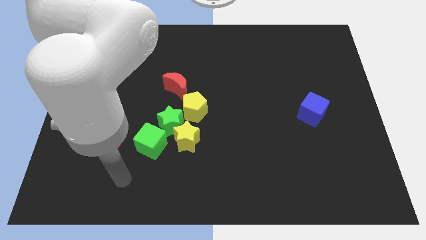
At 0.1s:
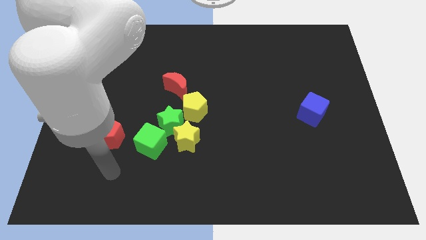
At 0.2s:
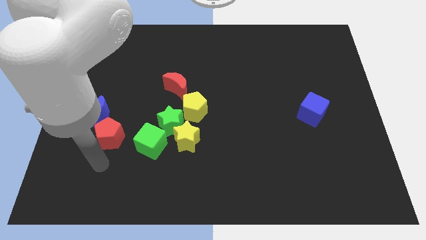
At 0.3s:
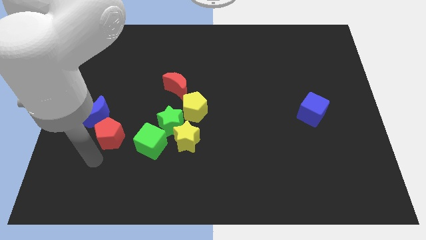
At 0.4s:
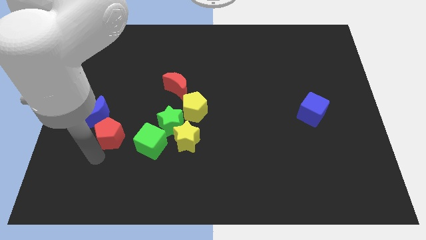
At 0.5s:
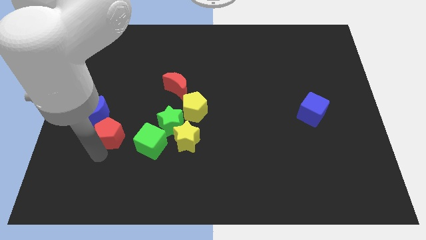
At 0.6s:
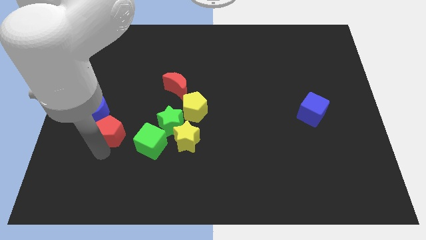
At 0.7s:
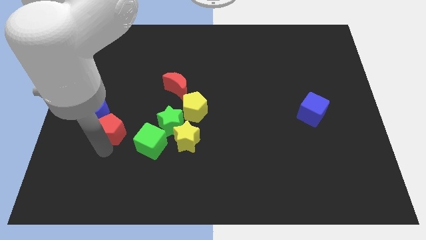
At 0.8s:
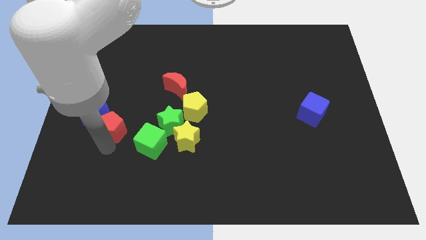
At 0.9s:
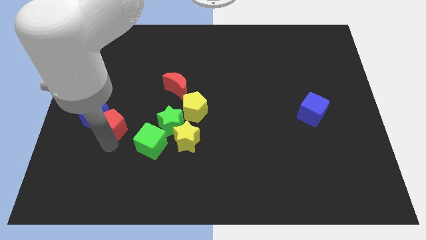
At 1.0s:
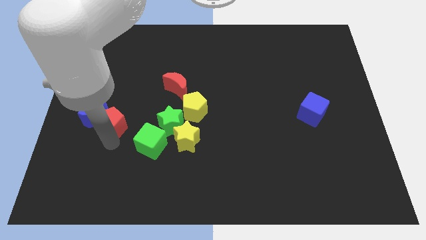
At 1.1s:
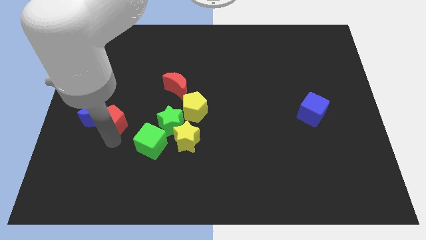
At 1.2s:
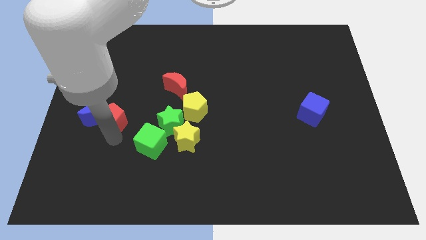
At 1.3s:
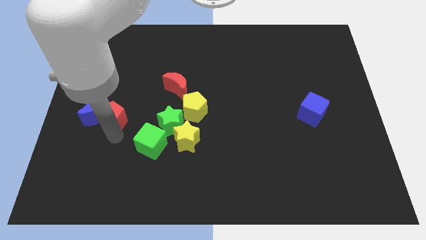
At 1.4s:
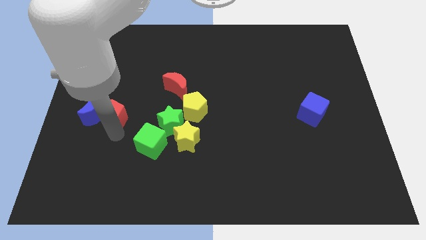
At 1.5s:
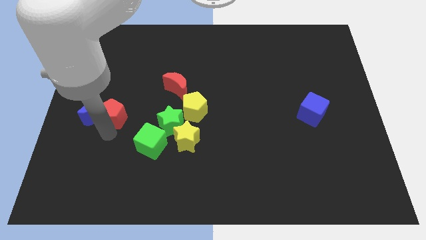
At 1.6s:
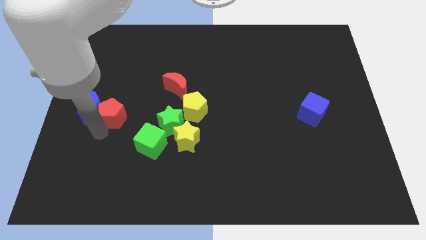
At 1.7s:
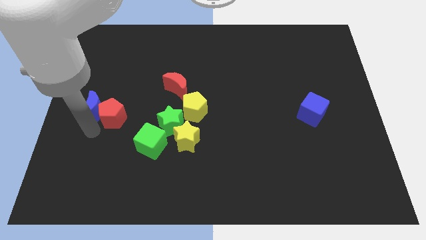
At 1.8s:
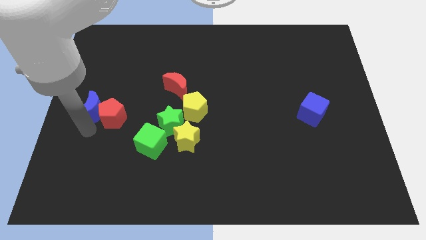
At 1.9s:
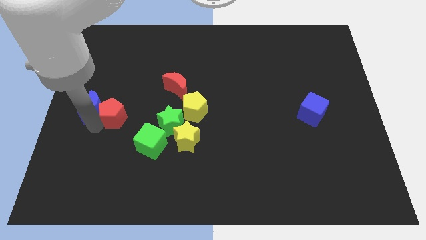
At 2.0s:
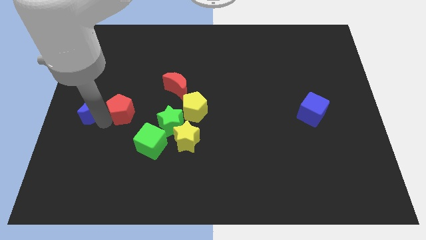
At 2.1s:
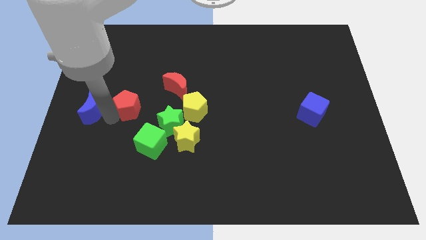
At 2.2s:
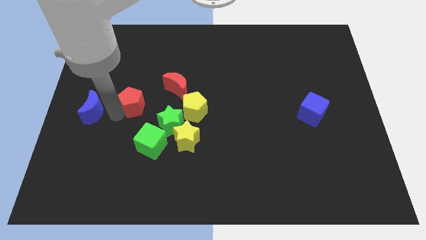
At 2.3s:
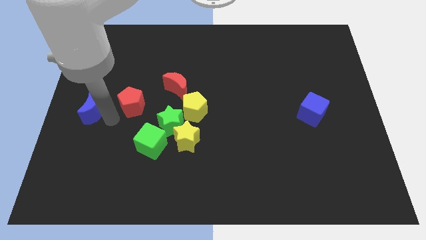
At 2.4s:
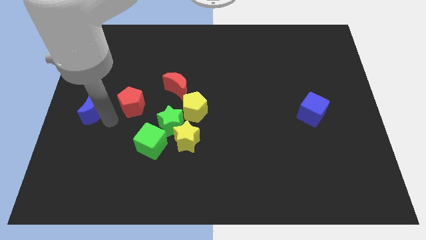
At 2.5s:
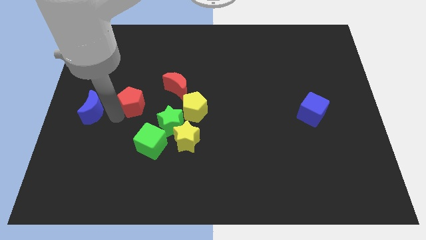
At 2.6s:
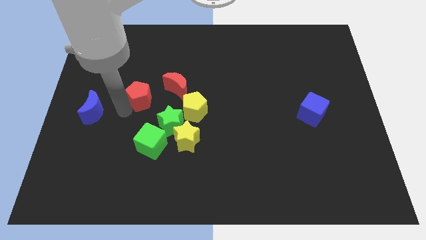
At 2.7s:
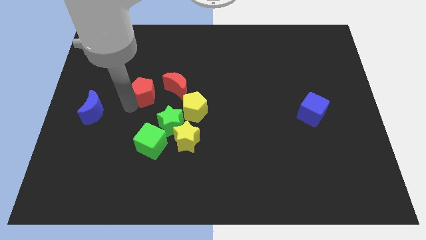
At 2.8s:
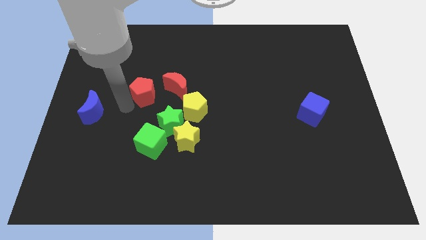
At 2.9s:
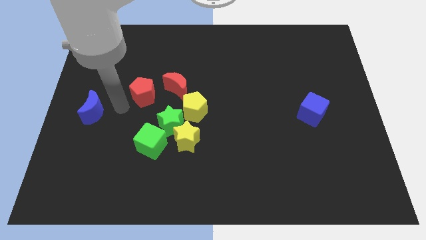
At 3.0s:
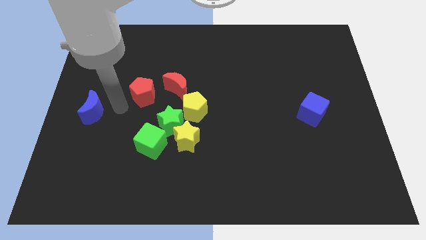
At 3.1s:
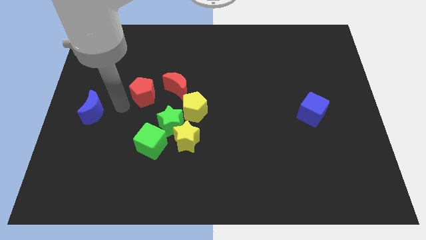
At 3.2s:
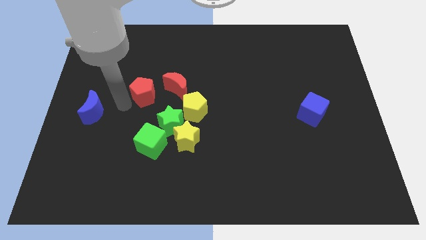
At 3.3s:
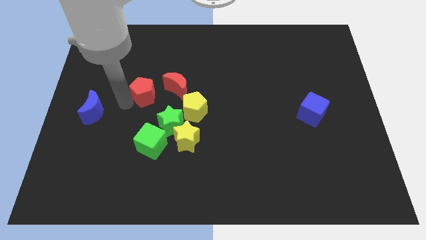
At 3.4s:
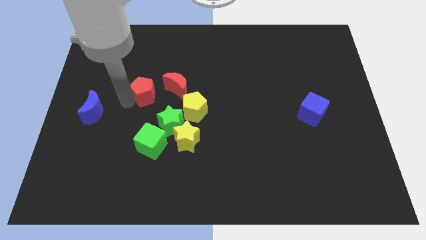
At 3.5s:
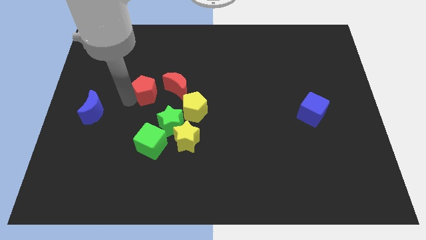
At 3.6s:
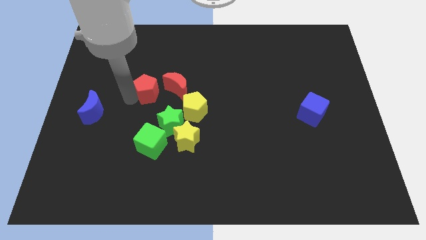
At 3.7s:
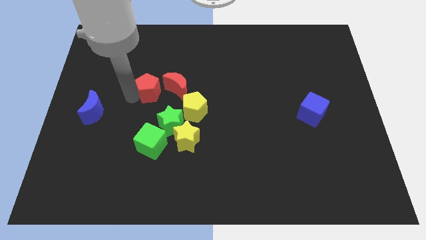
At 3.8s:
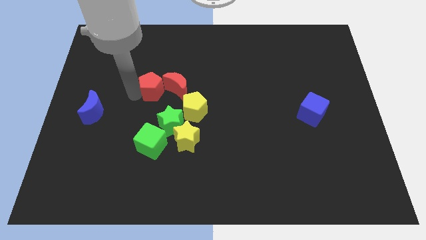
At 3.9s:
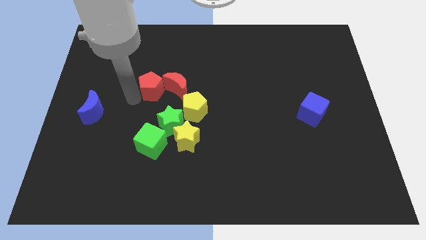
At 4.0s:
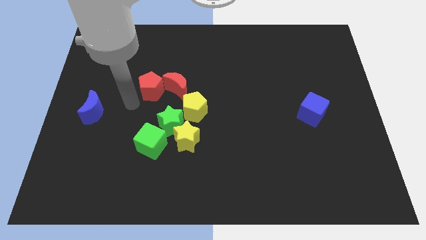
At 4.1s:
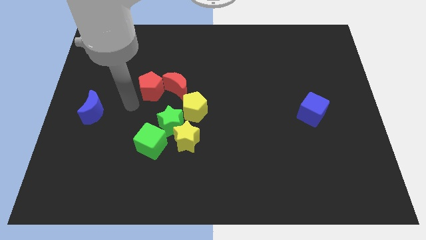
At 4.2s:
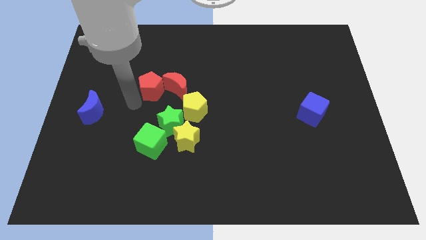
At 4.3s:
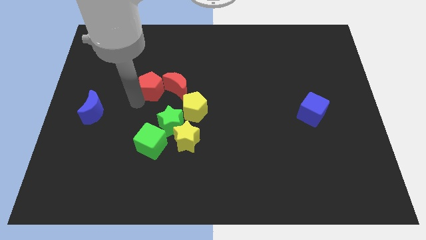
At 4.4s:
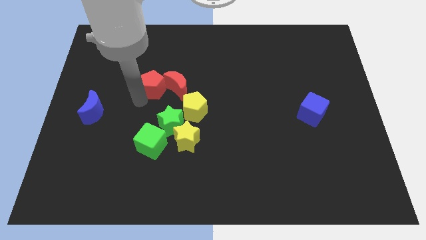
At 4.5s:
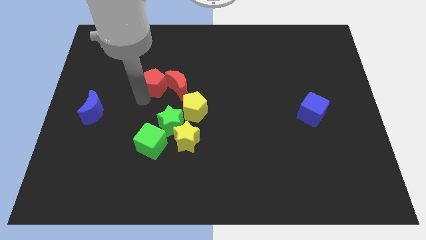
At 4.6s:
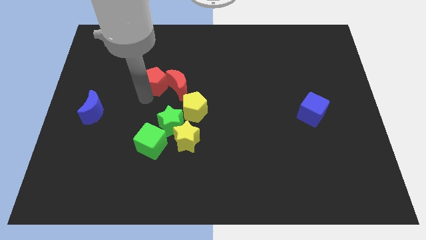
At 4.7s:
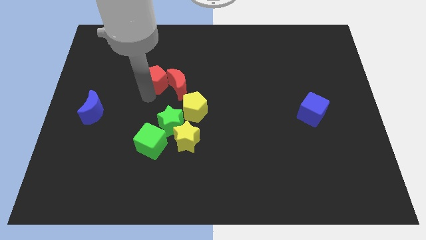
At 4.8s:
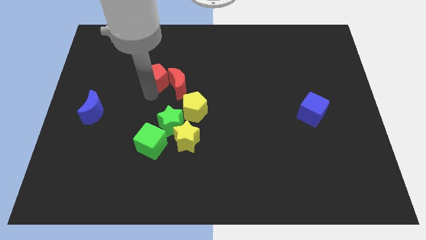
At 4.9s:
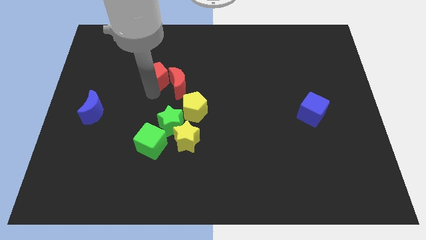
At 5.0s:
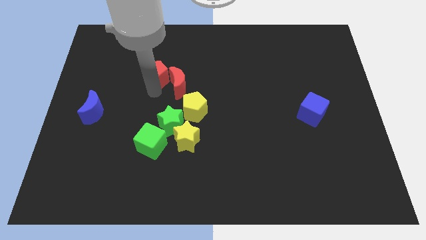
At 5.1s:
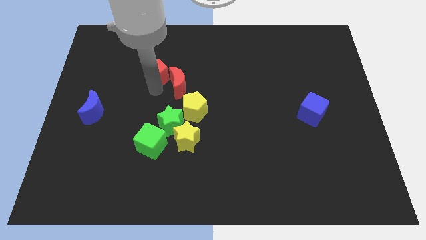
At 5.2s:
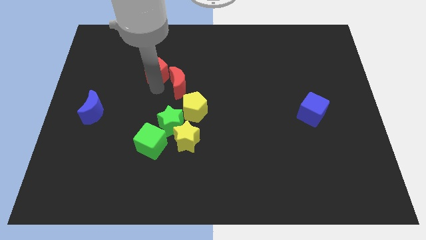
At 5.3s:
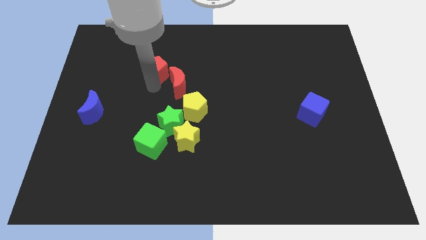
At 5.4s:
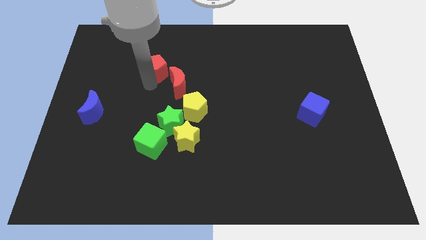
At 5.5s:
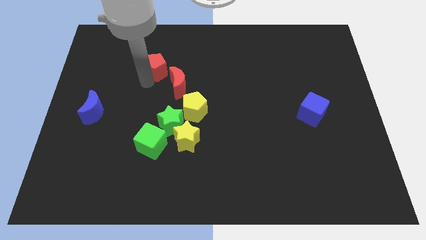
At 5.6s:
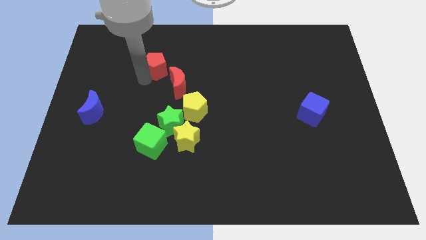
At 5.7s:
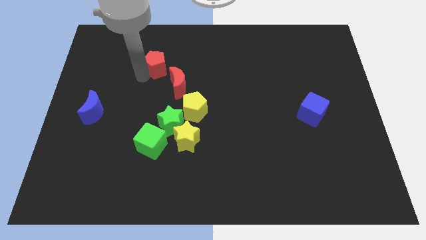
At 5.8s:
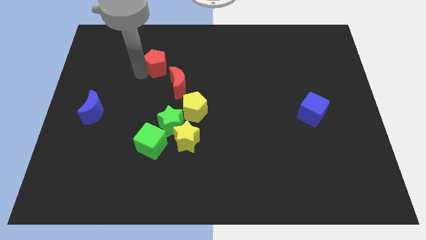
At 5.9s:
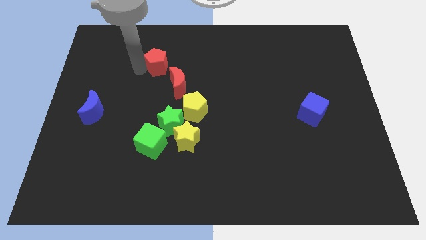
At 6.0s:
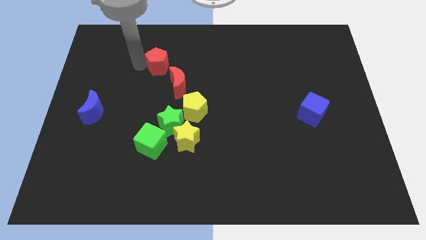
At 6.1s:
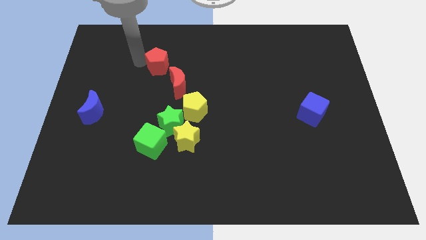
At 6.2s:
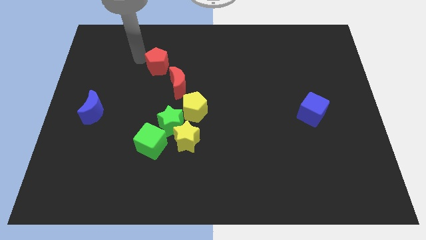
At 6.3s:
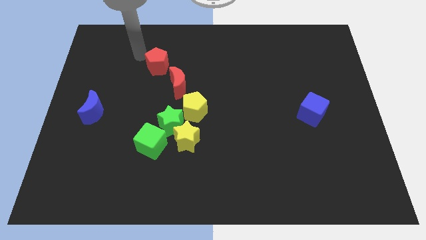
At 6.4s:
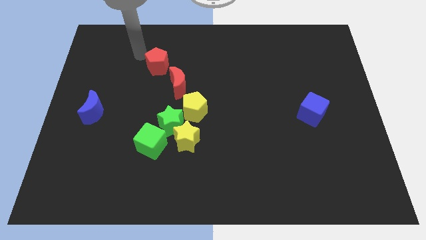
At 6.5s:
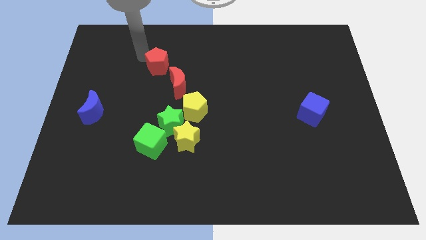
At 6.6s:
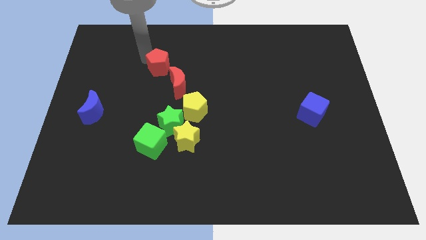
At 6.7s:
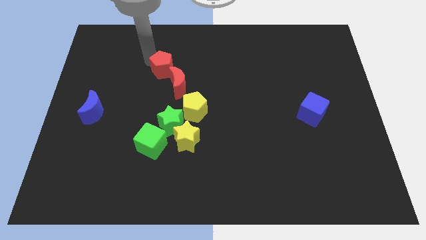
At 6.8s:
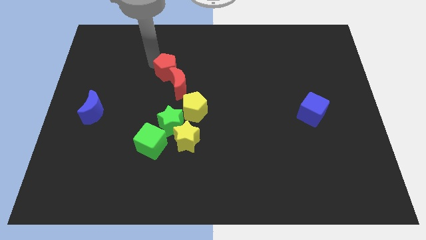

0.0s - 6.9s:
push the red pentagon upwards and to the right

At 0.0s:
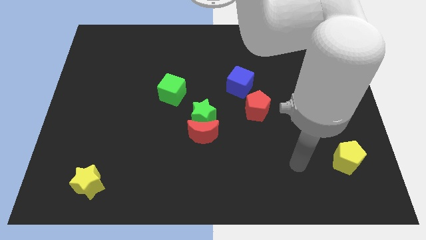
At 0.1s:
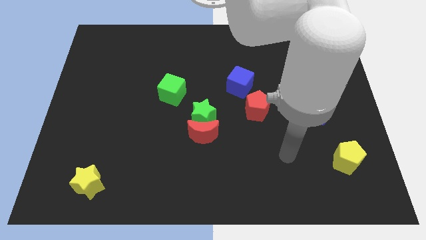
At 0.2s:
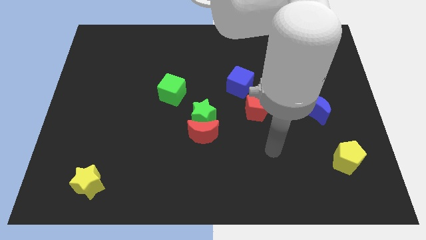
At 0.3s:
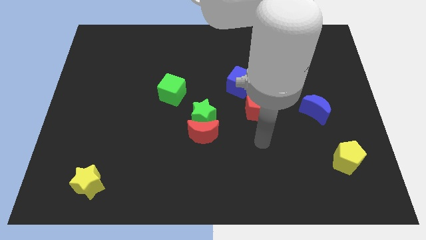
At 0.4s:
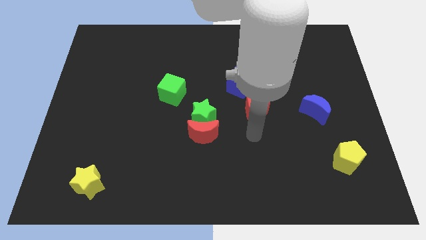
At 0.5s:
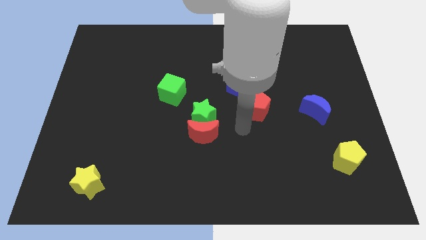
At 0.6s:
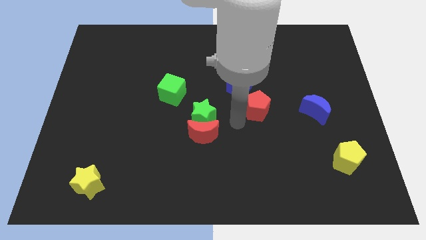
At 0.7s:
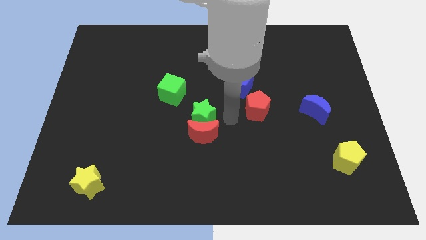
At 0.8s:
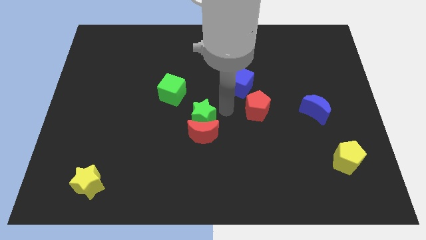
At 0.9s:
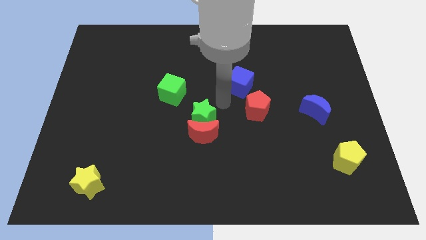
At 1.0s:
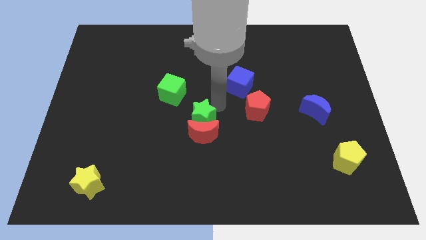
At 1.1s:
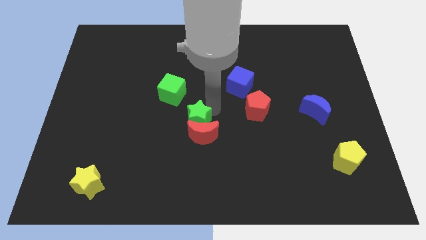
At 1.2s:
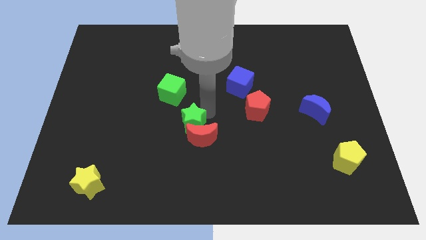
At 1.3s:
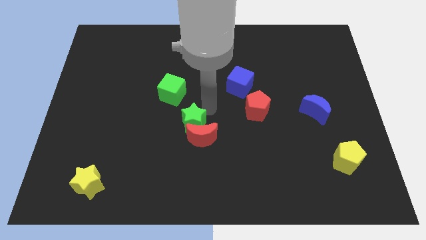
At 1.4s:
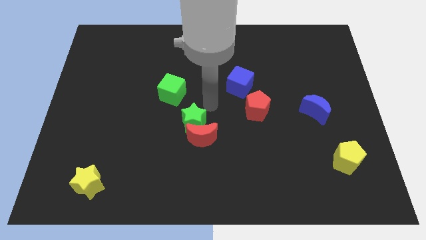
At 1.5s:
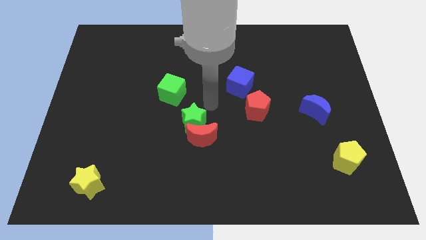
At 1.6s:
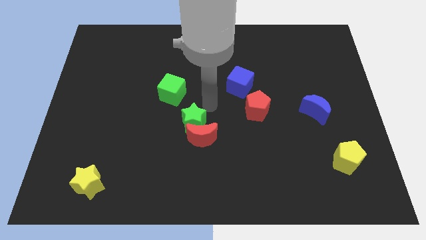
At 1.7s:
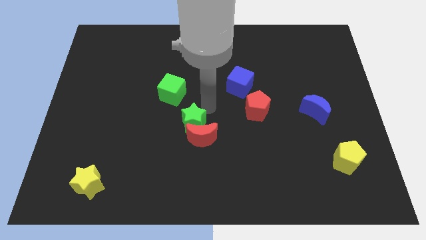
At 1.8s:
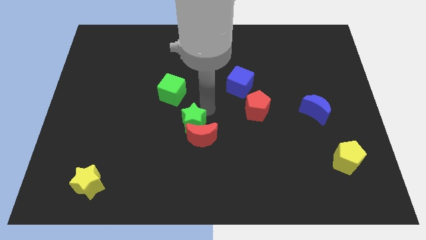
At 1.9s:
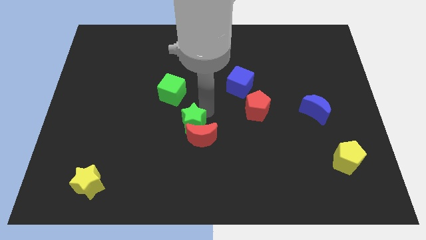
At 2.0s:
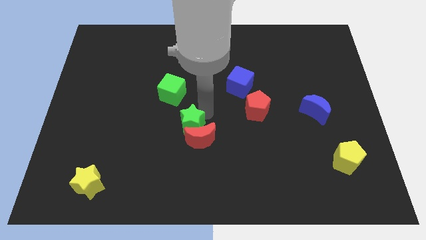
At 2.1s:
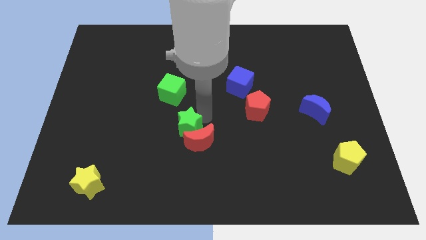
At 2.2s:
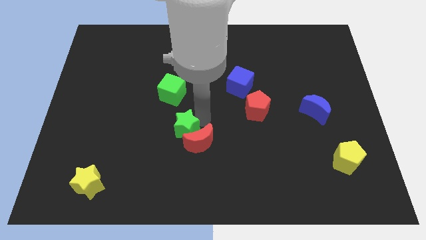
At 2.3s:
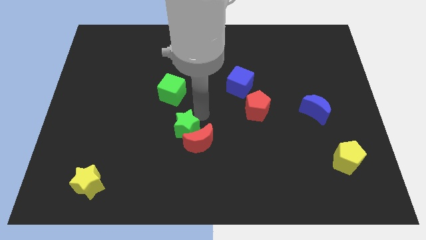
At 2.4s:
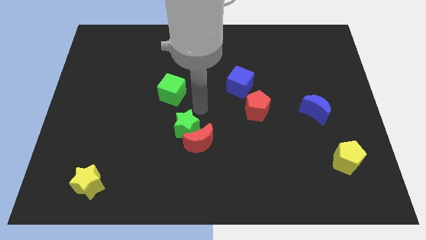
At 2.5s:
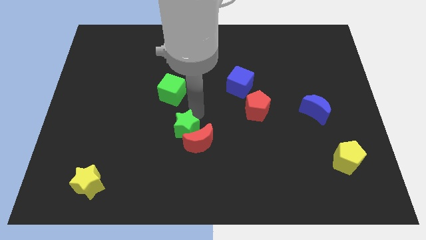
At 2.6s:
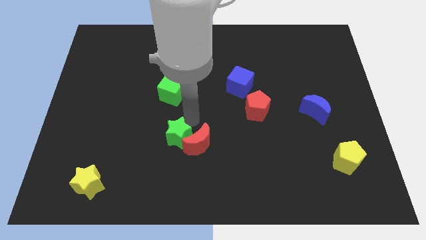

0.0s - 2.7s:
move the green star somewhat downwards and then left
